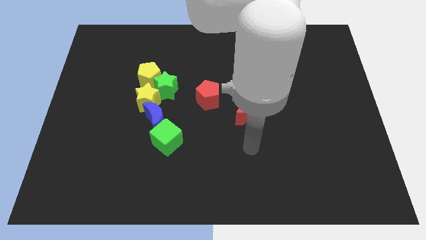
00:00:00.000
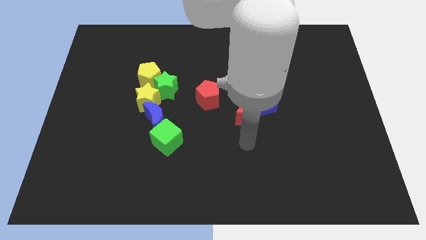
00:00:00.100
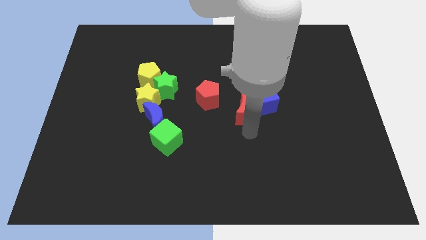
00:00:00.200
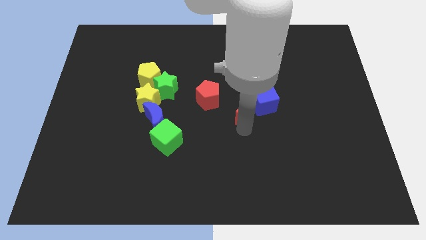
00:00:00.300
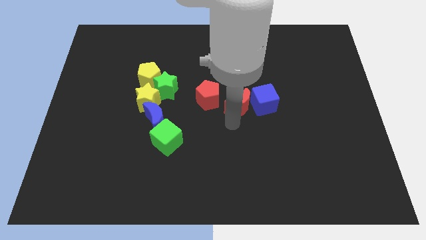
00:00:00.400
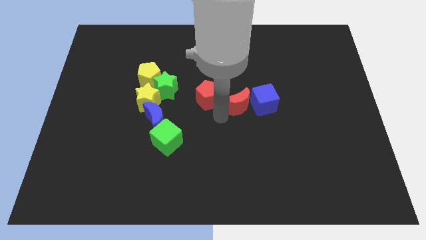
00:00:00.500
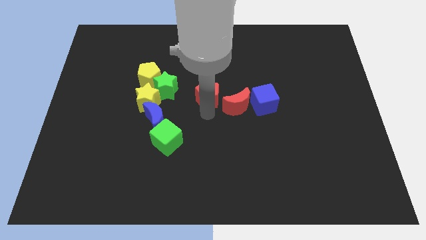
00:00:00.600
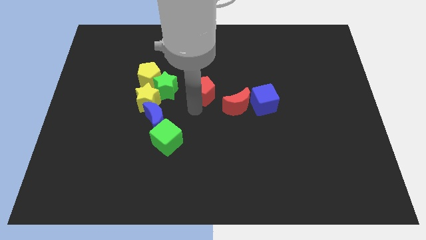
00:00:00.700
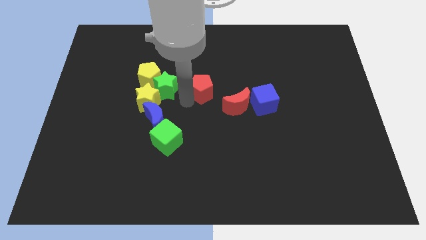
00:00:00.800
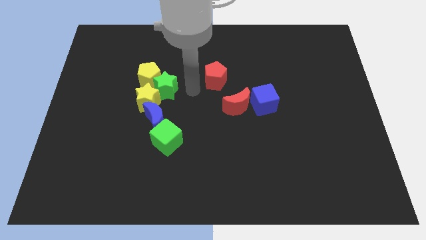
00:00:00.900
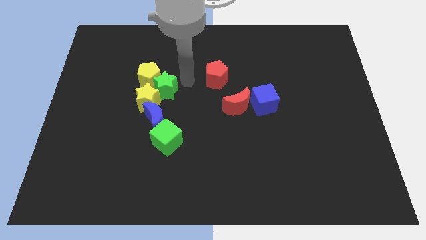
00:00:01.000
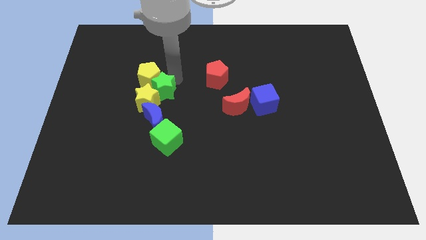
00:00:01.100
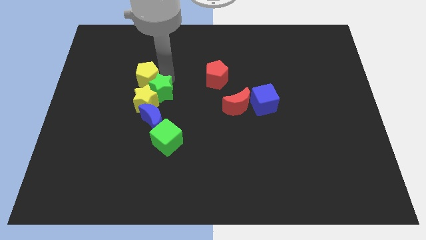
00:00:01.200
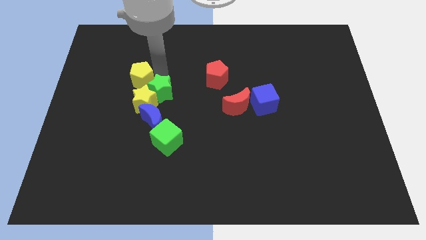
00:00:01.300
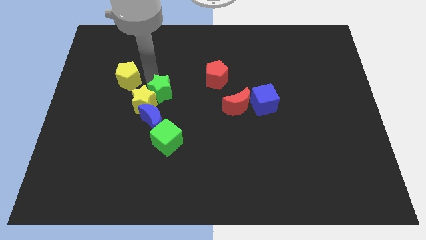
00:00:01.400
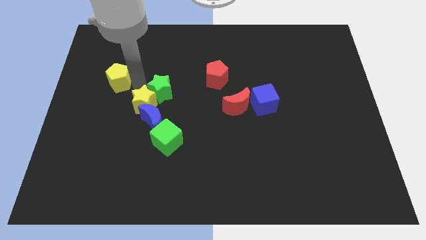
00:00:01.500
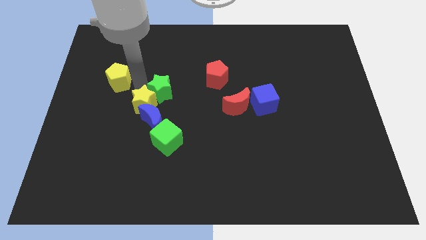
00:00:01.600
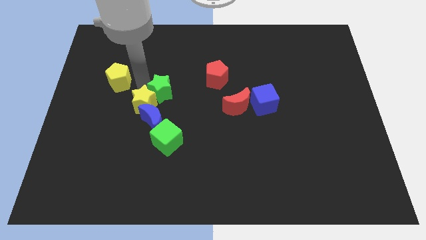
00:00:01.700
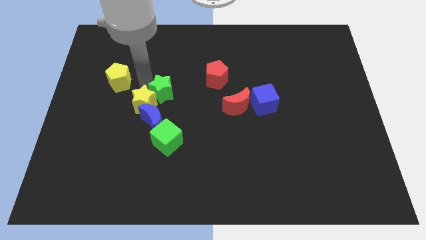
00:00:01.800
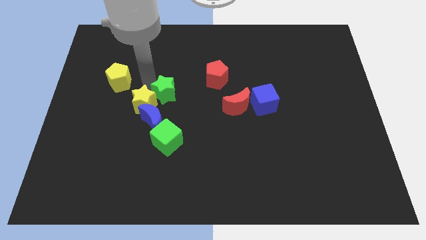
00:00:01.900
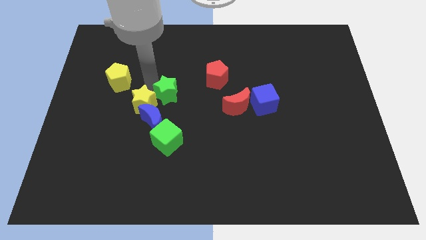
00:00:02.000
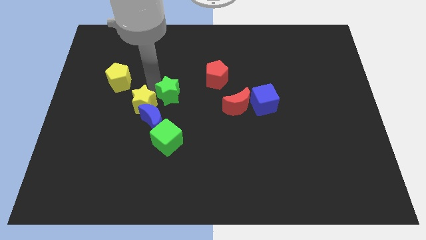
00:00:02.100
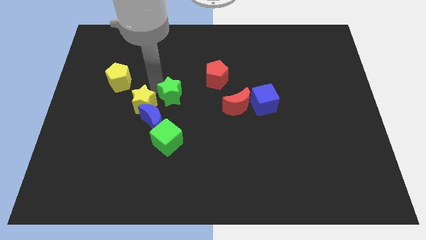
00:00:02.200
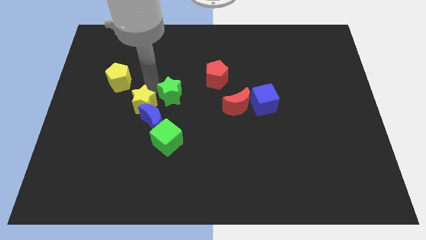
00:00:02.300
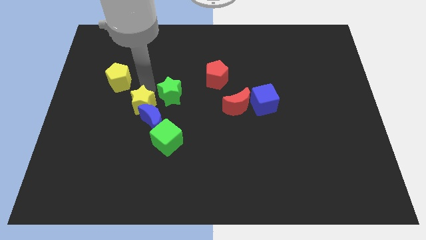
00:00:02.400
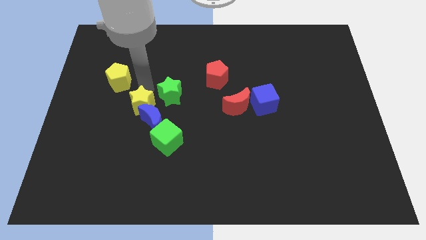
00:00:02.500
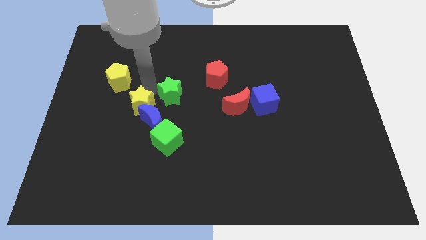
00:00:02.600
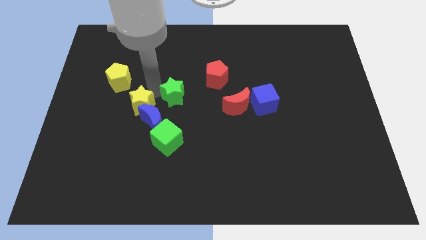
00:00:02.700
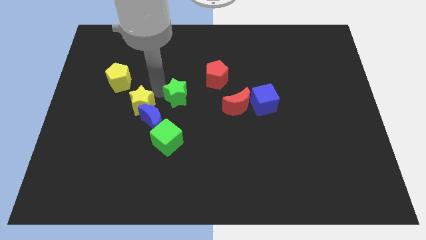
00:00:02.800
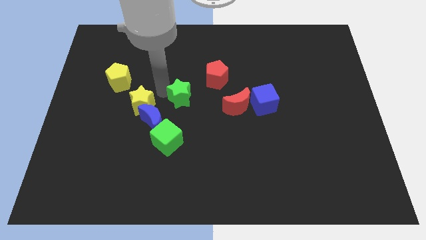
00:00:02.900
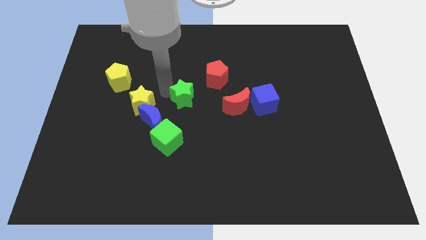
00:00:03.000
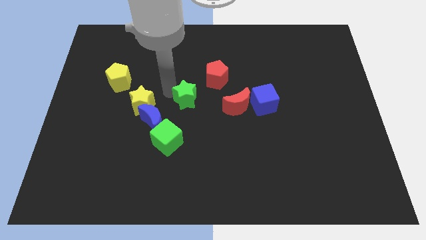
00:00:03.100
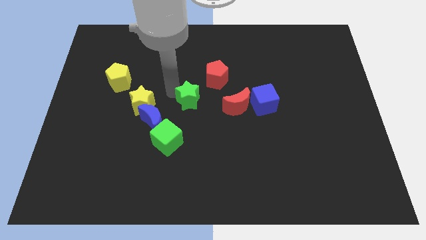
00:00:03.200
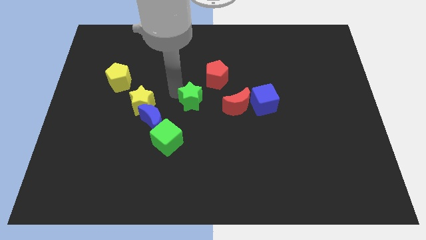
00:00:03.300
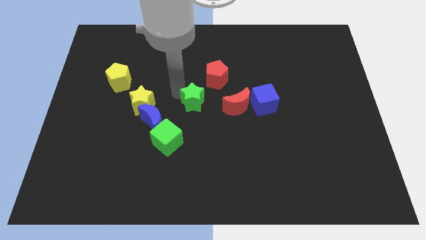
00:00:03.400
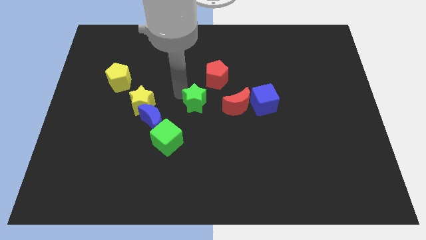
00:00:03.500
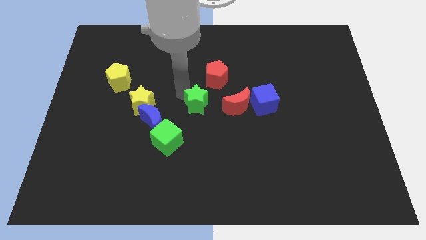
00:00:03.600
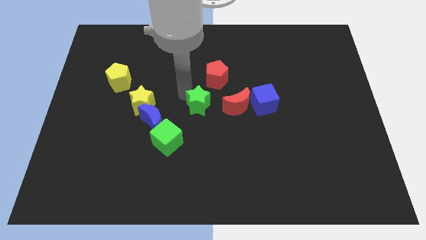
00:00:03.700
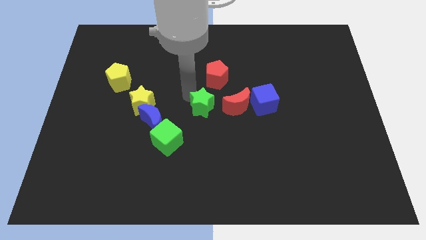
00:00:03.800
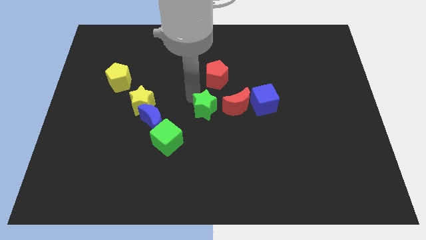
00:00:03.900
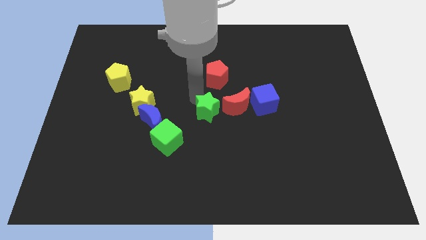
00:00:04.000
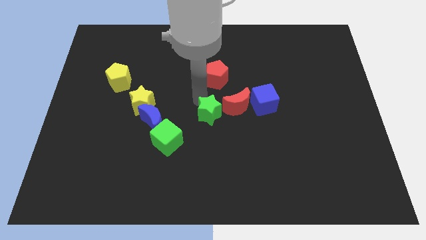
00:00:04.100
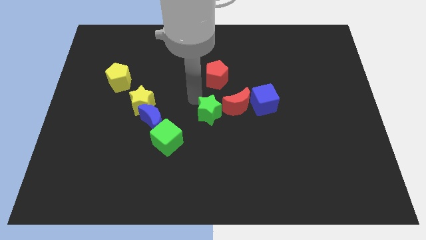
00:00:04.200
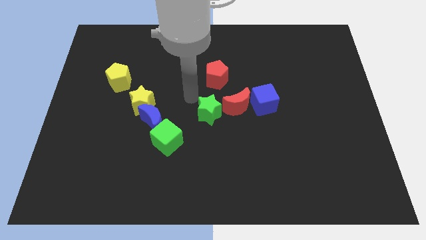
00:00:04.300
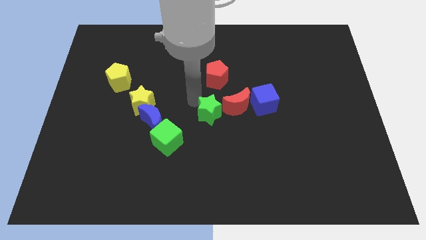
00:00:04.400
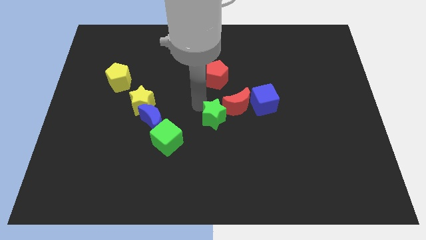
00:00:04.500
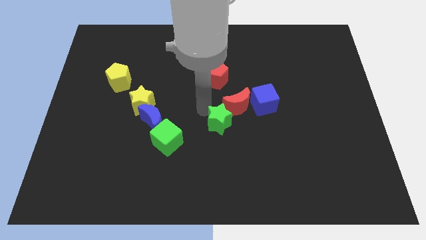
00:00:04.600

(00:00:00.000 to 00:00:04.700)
put the green star to the bottom of the red moon

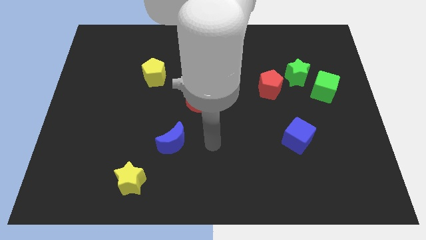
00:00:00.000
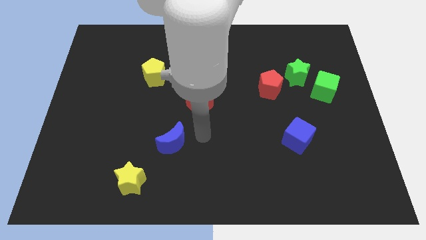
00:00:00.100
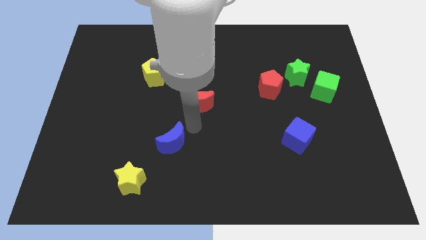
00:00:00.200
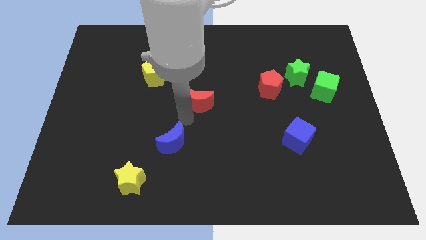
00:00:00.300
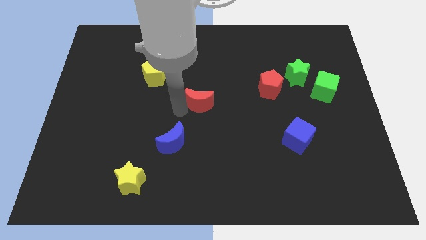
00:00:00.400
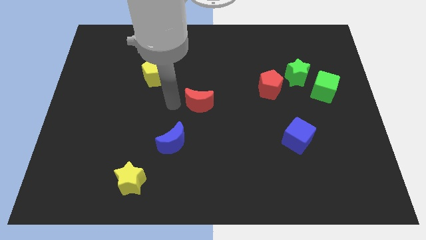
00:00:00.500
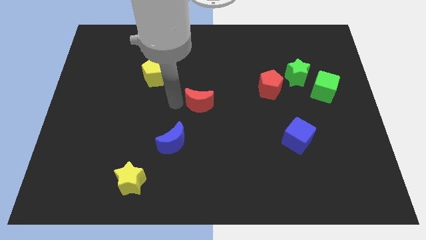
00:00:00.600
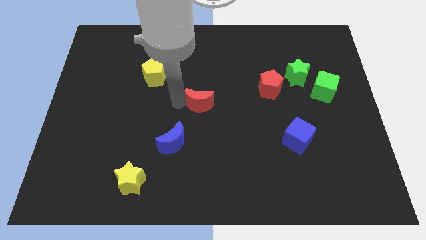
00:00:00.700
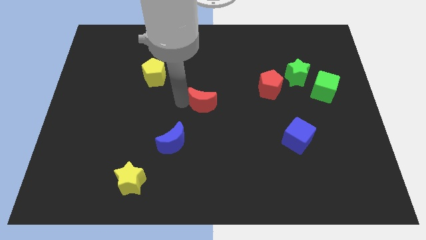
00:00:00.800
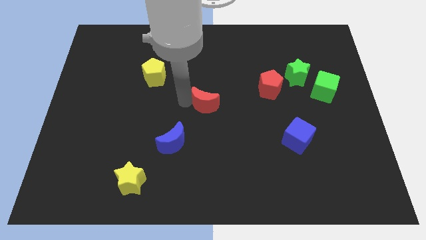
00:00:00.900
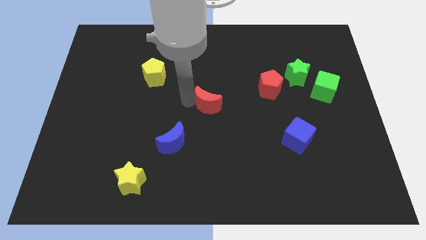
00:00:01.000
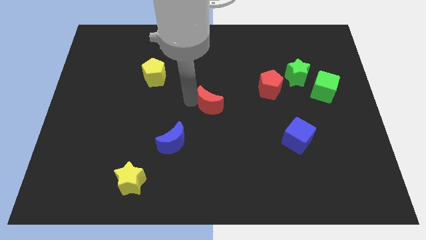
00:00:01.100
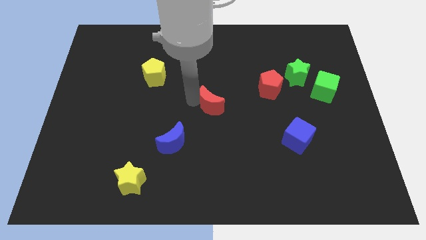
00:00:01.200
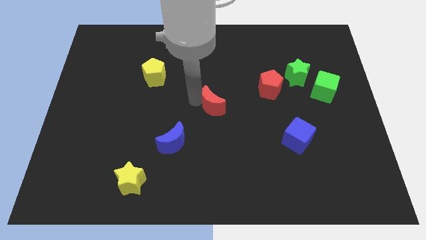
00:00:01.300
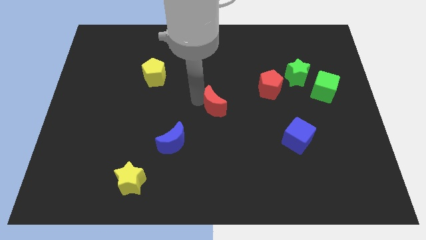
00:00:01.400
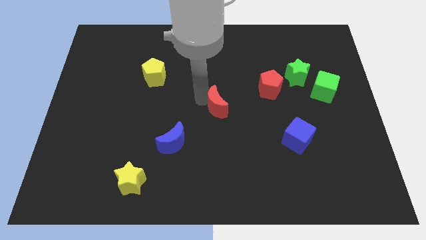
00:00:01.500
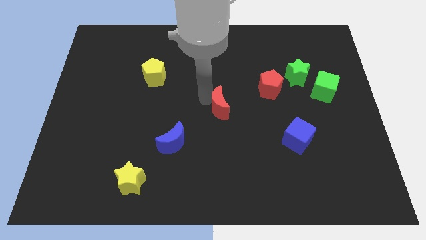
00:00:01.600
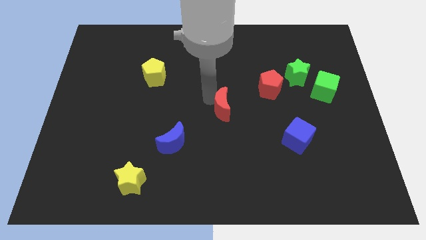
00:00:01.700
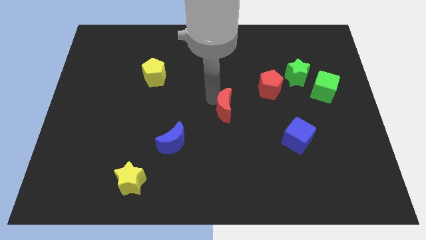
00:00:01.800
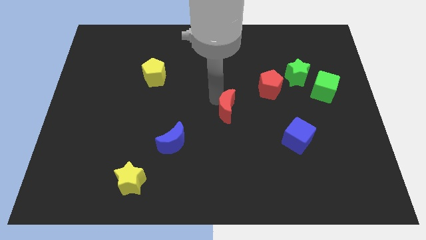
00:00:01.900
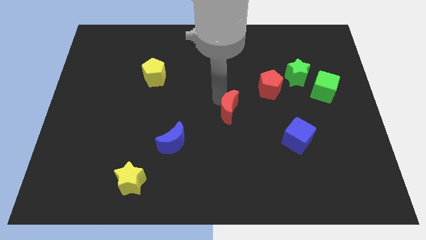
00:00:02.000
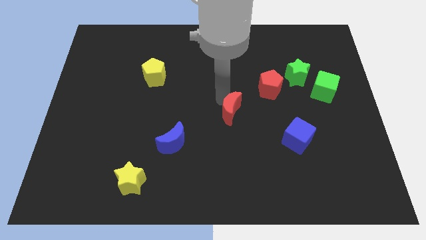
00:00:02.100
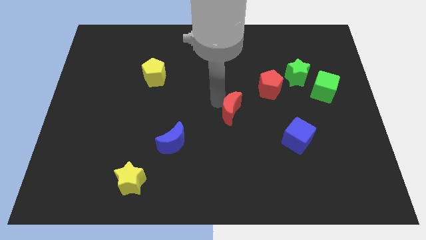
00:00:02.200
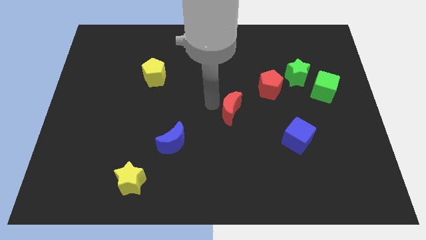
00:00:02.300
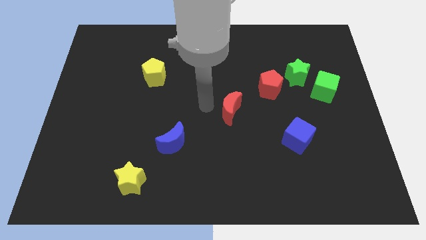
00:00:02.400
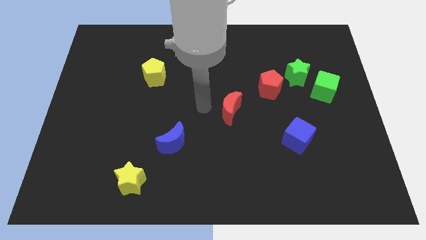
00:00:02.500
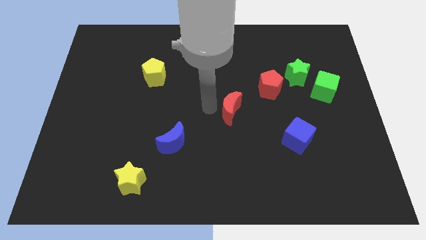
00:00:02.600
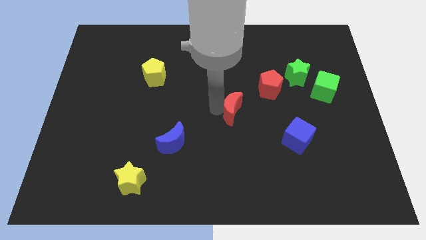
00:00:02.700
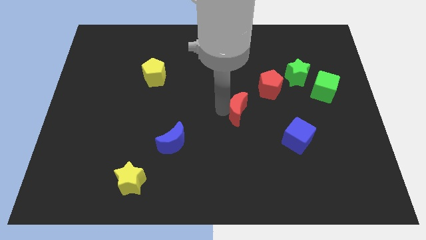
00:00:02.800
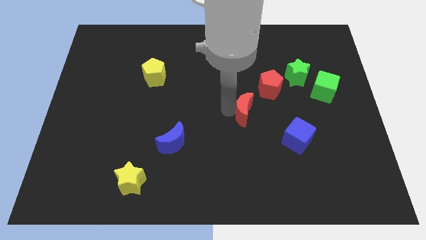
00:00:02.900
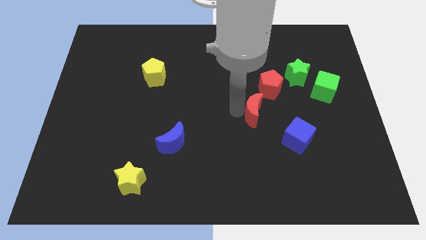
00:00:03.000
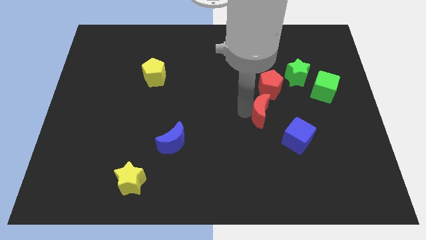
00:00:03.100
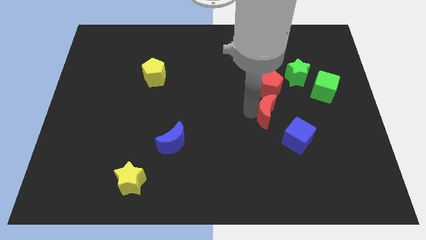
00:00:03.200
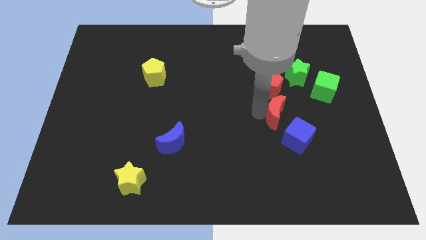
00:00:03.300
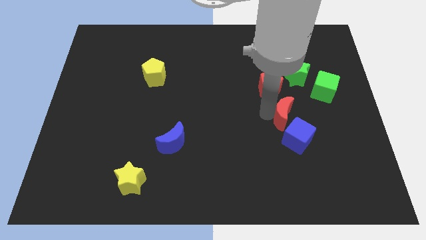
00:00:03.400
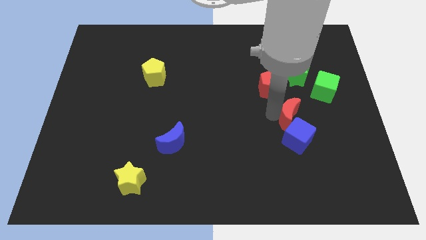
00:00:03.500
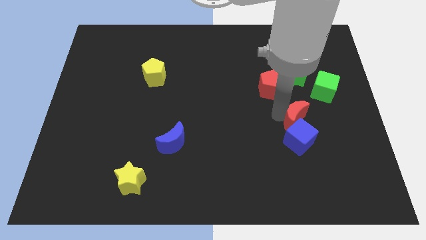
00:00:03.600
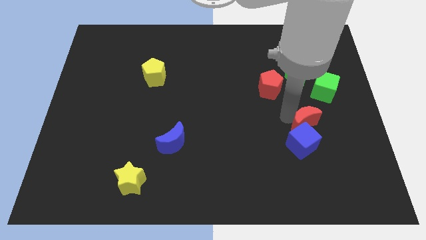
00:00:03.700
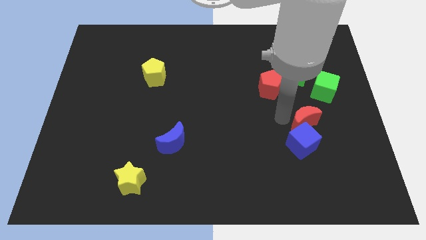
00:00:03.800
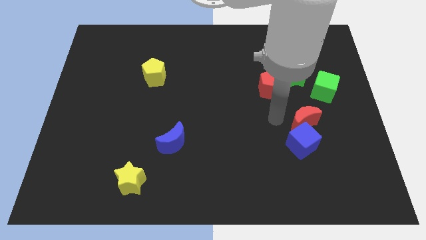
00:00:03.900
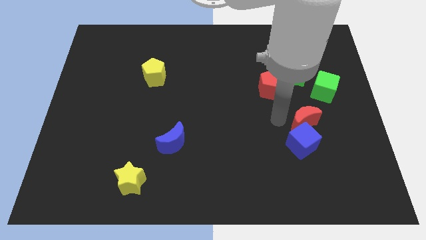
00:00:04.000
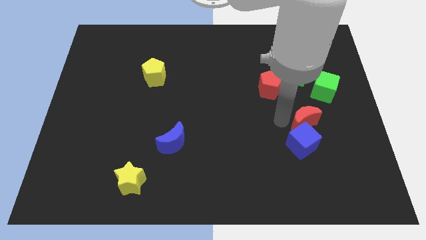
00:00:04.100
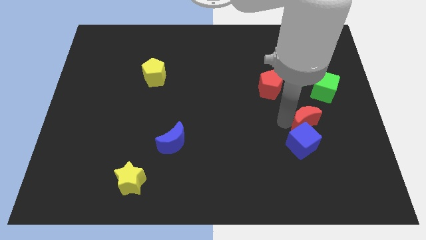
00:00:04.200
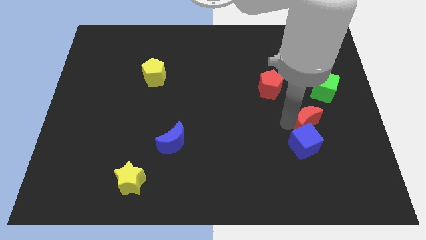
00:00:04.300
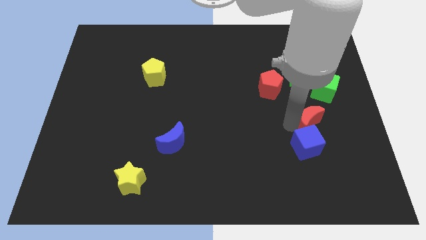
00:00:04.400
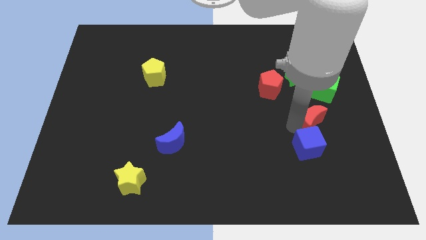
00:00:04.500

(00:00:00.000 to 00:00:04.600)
put the red moon to the bottom of the green cube
